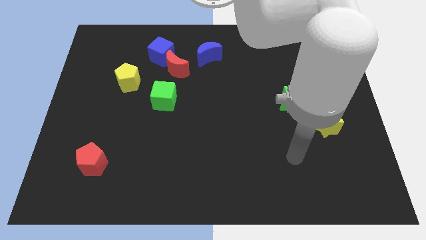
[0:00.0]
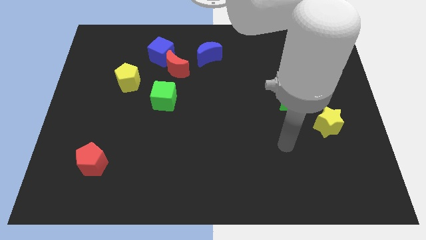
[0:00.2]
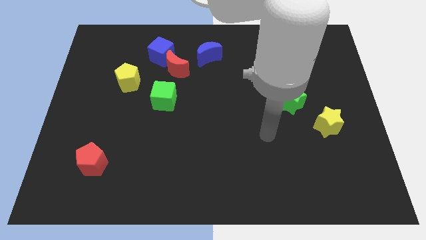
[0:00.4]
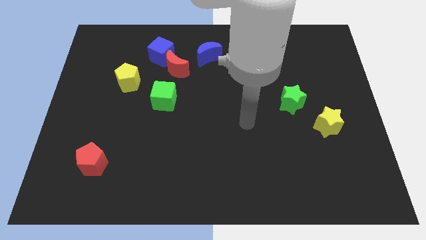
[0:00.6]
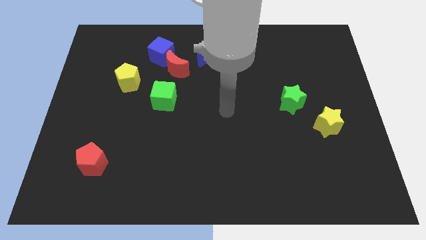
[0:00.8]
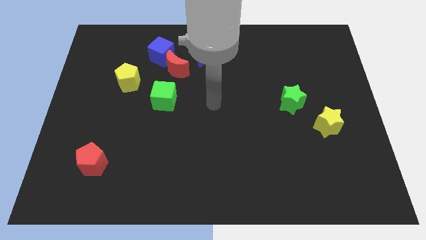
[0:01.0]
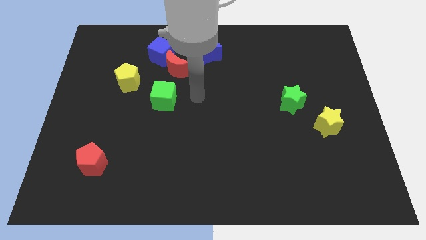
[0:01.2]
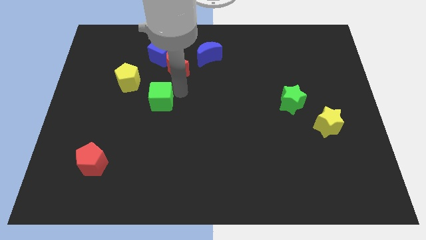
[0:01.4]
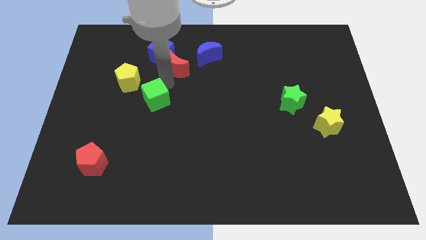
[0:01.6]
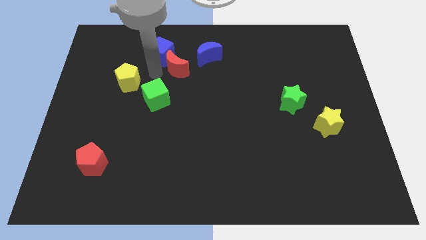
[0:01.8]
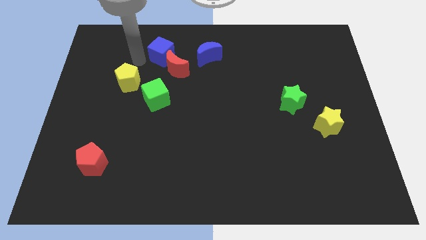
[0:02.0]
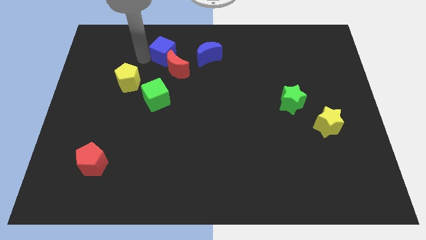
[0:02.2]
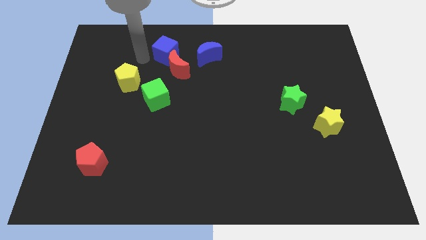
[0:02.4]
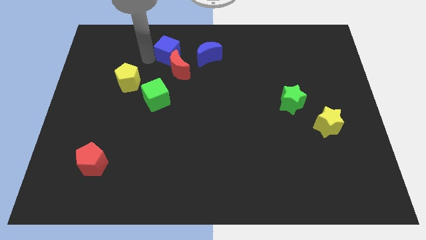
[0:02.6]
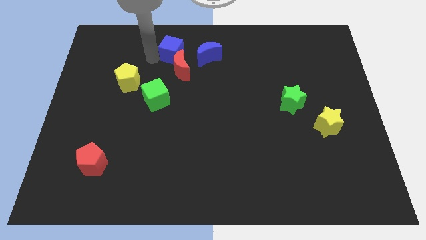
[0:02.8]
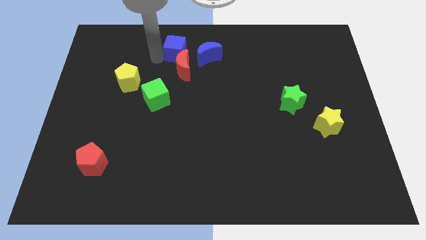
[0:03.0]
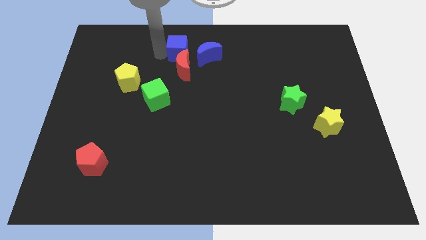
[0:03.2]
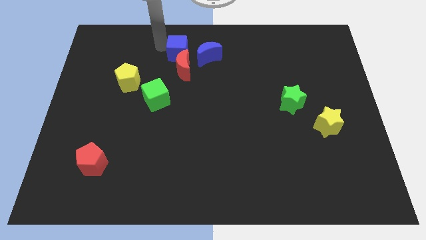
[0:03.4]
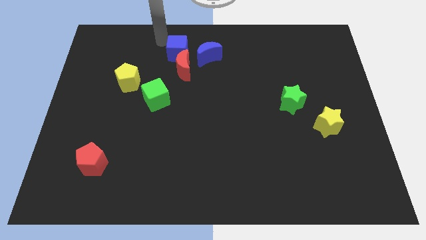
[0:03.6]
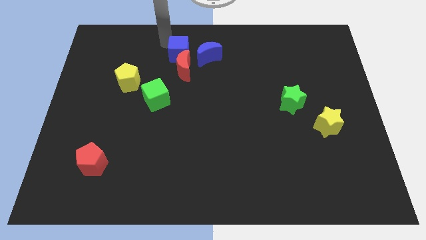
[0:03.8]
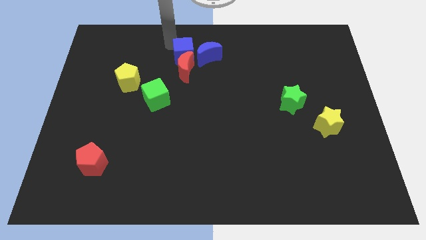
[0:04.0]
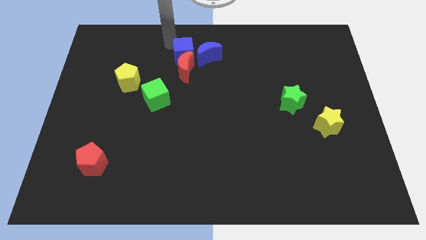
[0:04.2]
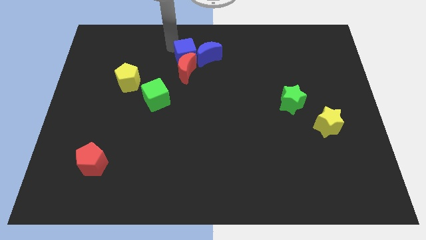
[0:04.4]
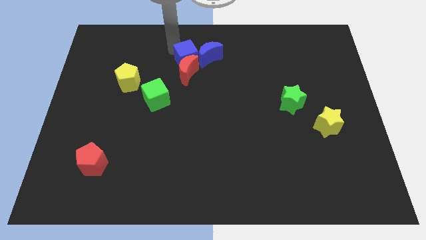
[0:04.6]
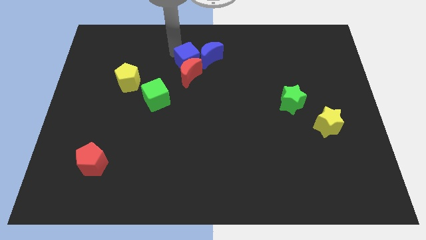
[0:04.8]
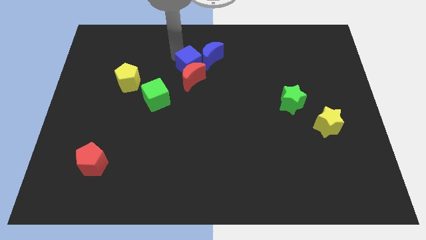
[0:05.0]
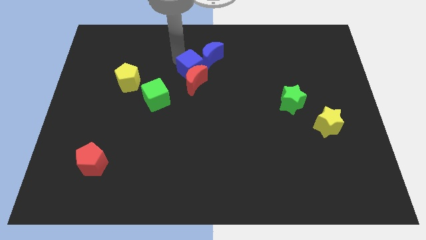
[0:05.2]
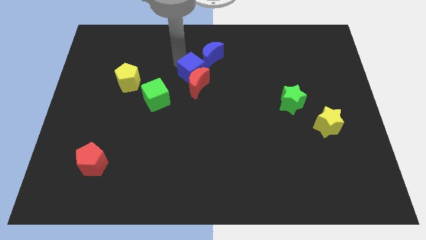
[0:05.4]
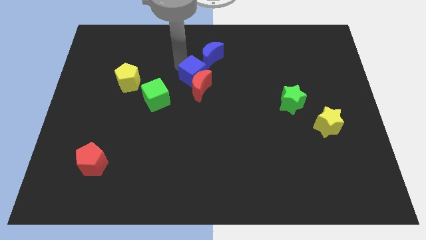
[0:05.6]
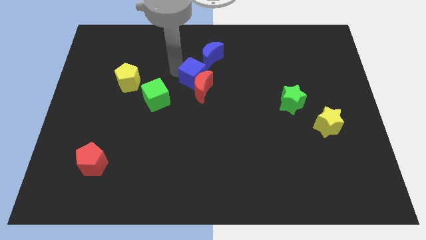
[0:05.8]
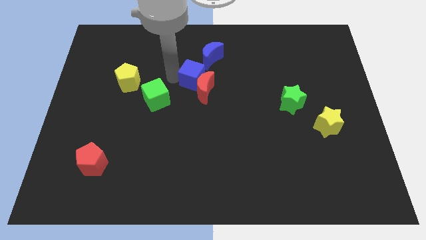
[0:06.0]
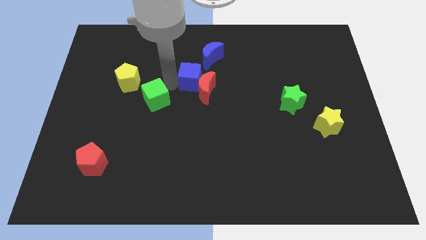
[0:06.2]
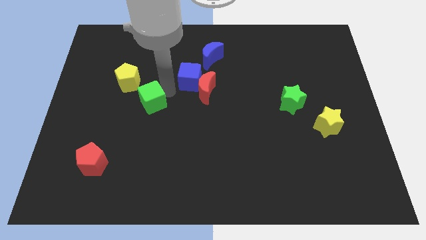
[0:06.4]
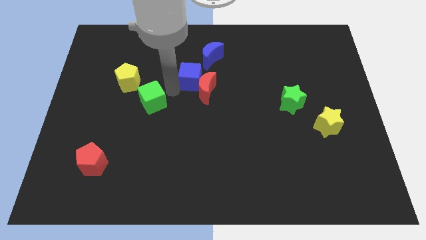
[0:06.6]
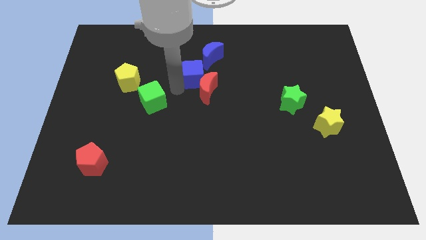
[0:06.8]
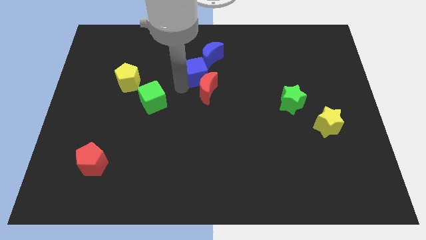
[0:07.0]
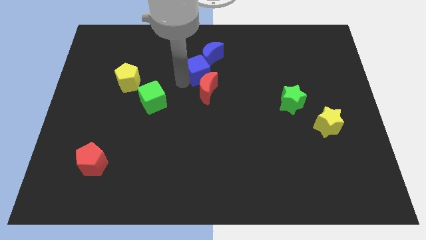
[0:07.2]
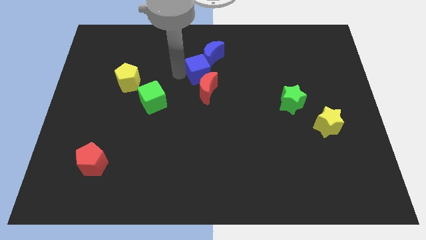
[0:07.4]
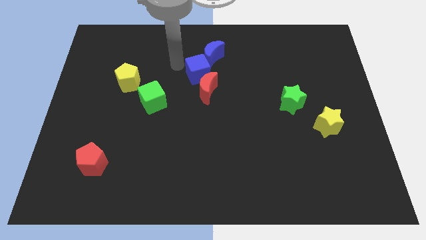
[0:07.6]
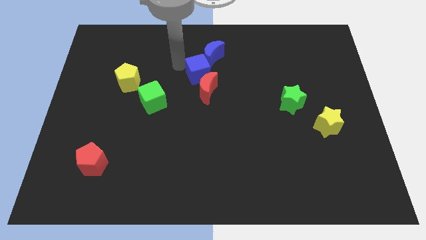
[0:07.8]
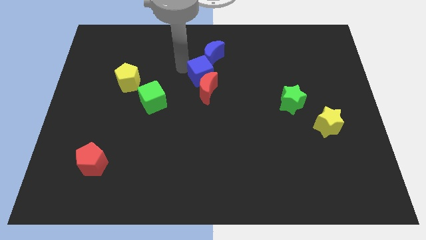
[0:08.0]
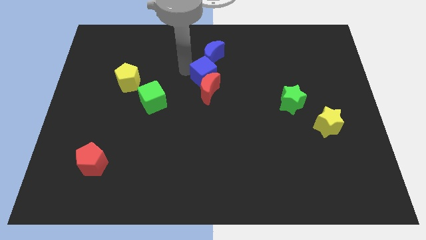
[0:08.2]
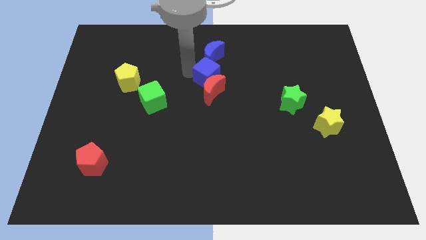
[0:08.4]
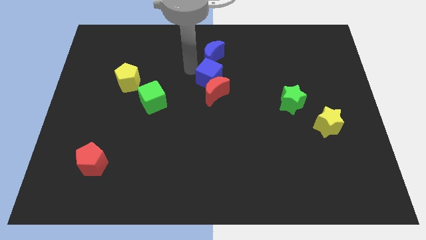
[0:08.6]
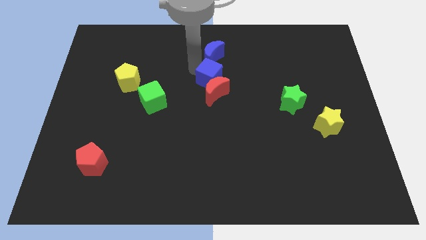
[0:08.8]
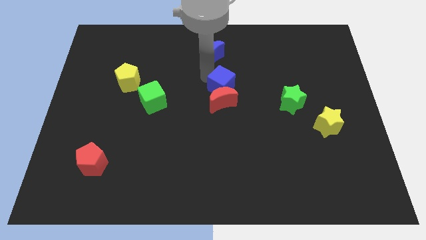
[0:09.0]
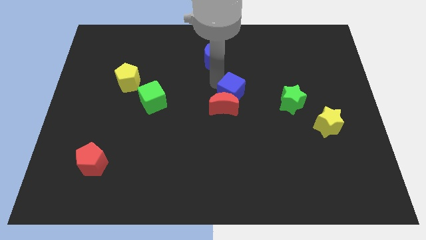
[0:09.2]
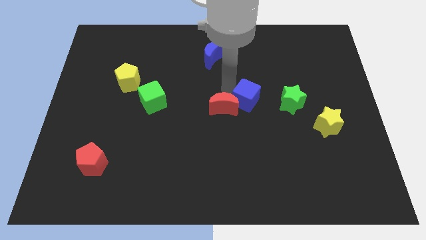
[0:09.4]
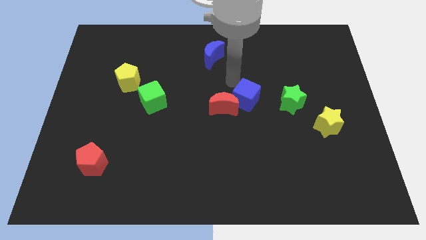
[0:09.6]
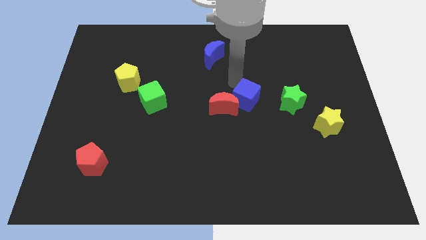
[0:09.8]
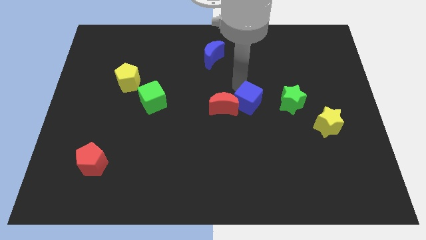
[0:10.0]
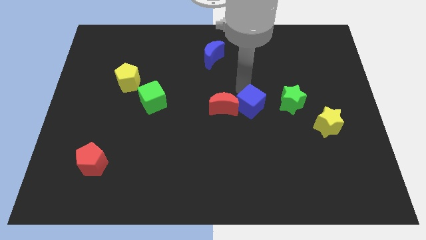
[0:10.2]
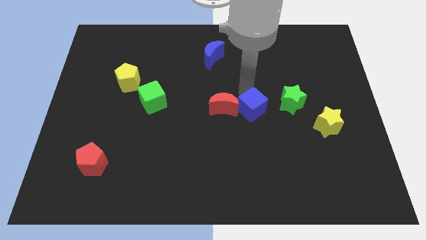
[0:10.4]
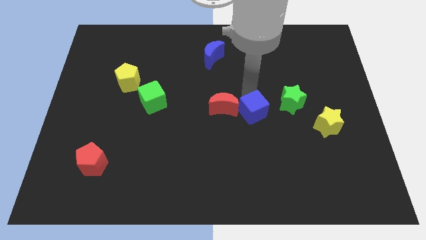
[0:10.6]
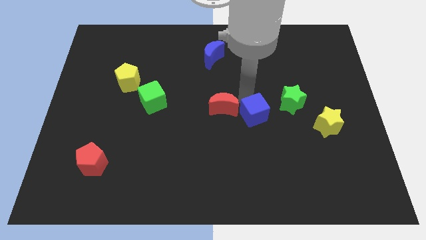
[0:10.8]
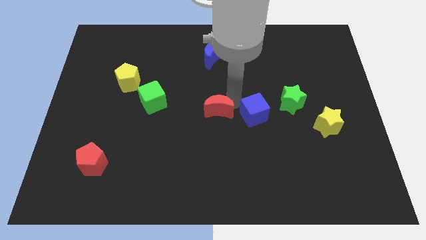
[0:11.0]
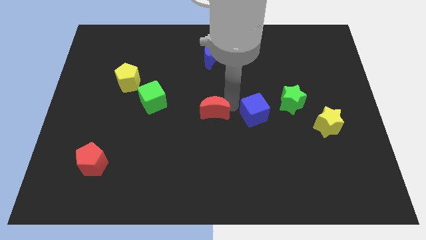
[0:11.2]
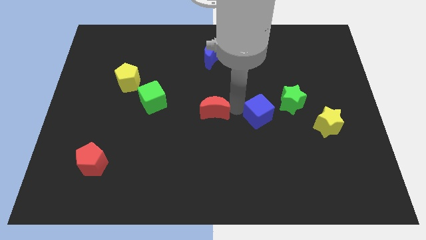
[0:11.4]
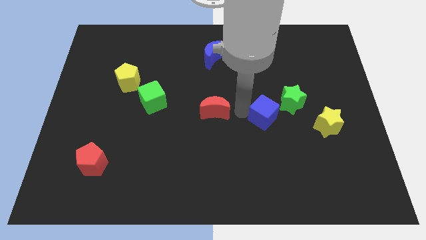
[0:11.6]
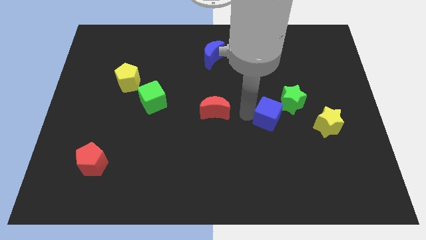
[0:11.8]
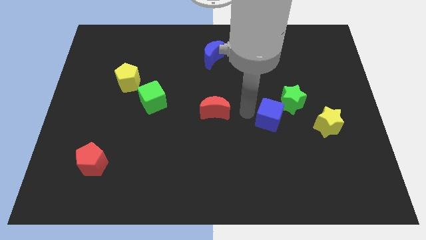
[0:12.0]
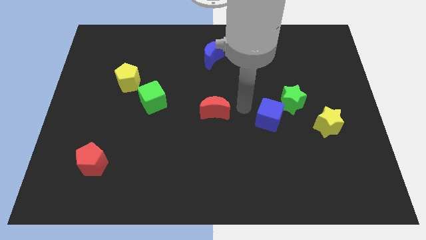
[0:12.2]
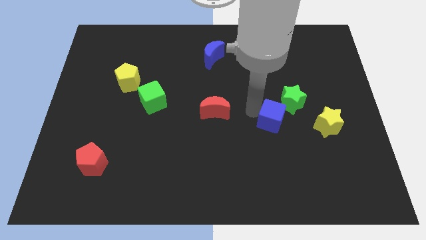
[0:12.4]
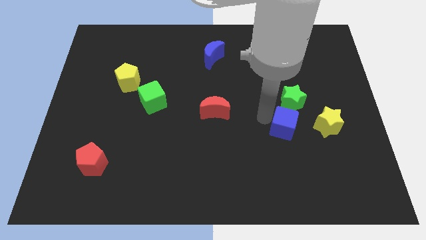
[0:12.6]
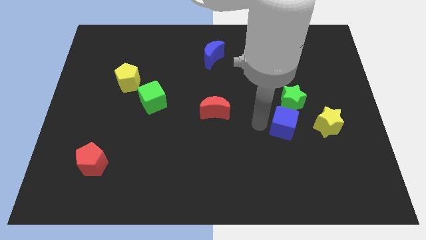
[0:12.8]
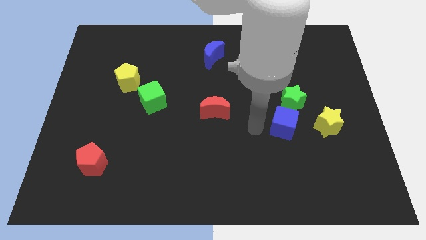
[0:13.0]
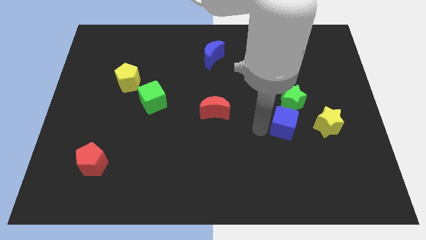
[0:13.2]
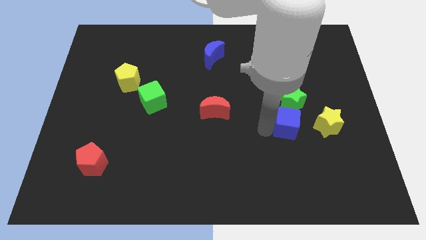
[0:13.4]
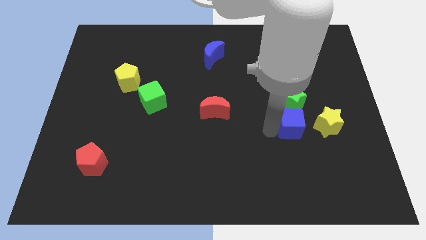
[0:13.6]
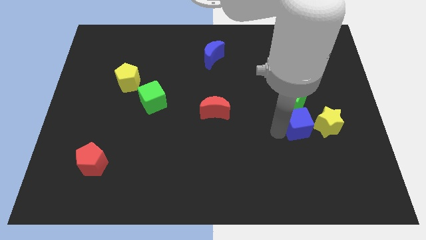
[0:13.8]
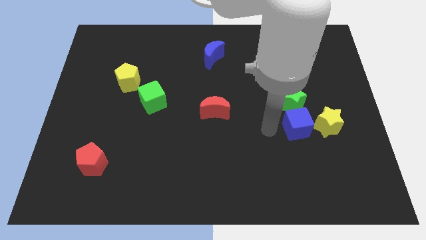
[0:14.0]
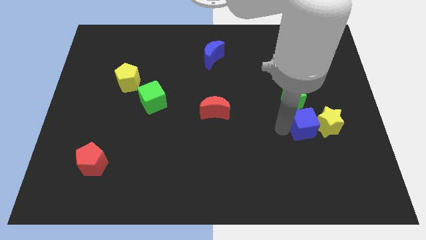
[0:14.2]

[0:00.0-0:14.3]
slide the blue cube towards the yellow star

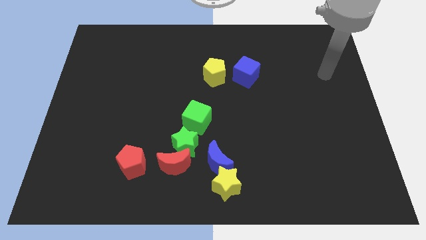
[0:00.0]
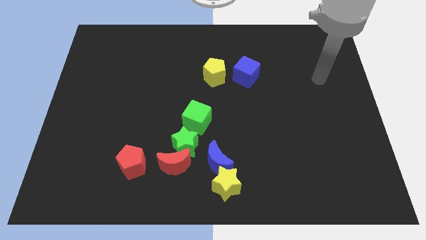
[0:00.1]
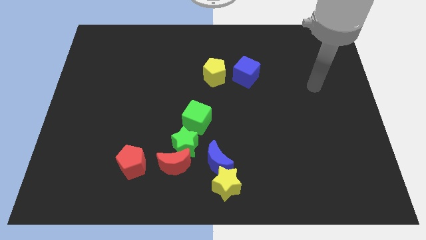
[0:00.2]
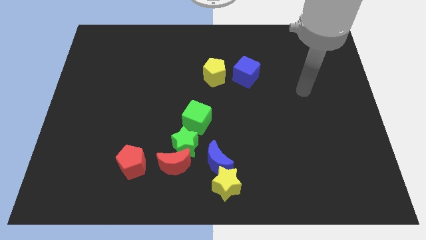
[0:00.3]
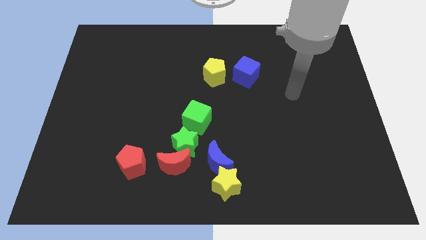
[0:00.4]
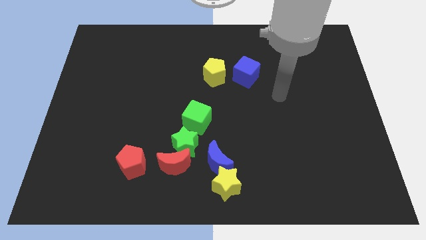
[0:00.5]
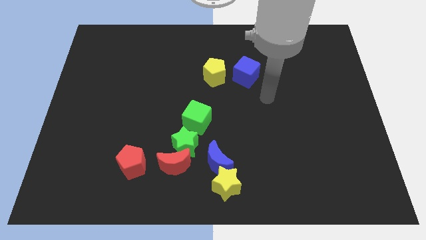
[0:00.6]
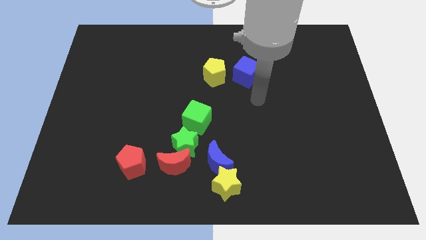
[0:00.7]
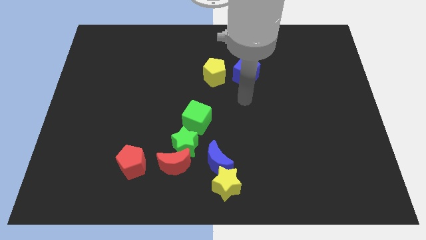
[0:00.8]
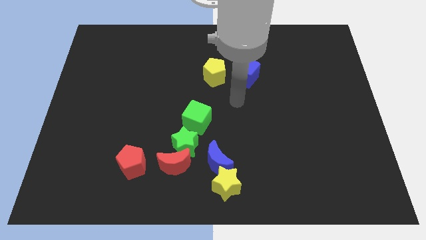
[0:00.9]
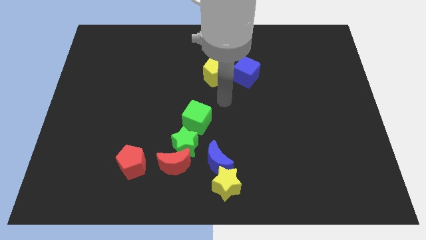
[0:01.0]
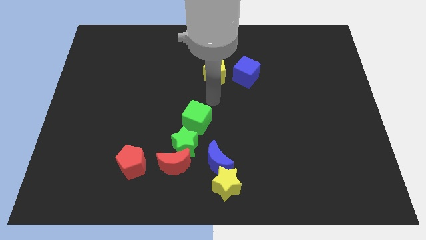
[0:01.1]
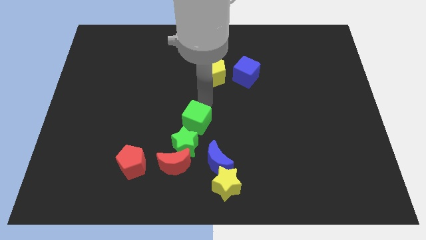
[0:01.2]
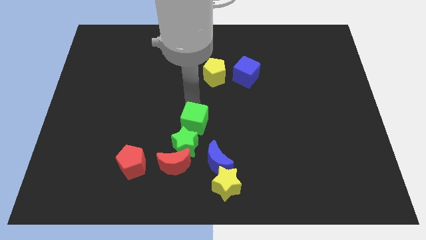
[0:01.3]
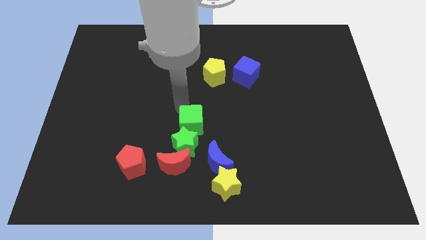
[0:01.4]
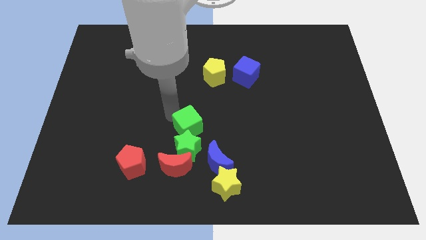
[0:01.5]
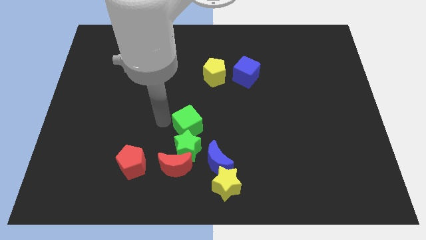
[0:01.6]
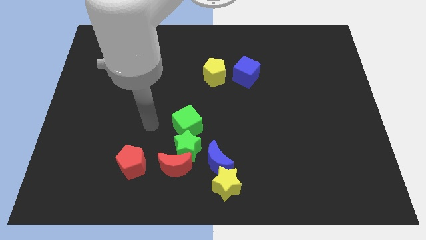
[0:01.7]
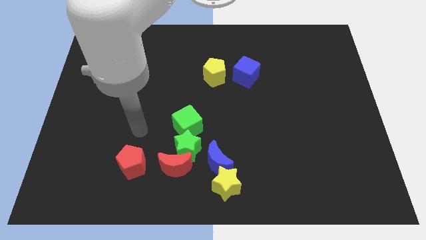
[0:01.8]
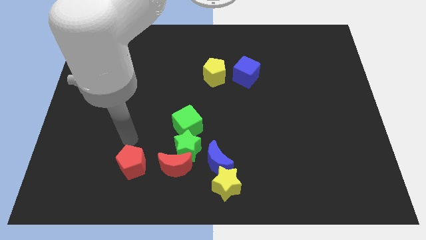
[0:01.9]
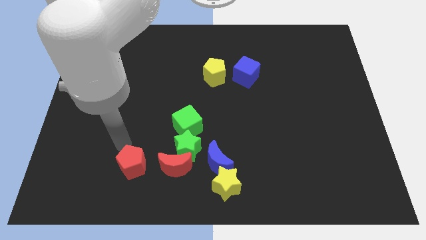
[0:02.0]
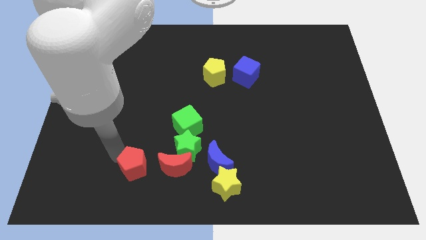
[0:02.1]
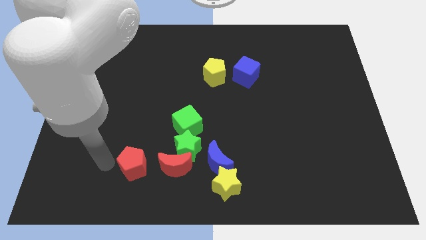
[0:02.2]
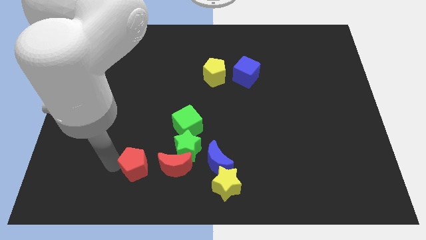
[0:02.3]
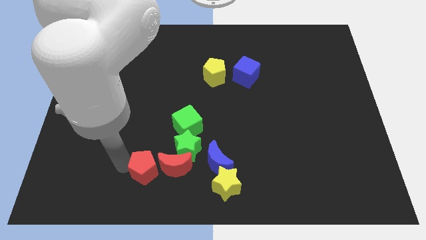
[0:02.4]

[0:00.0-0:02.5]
put the red pentagon to the red moon
